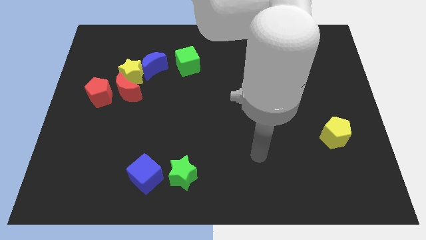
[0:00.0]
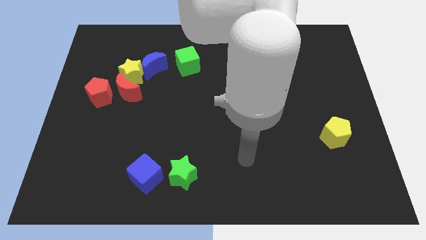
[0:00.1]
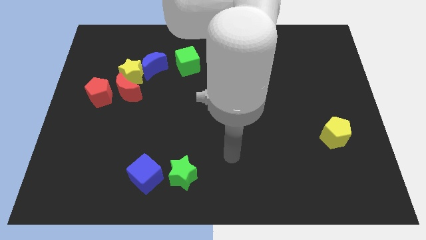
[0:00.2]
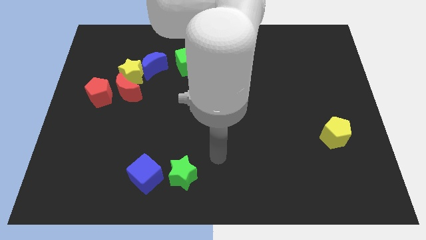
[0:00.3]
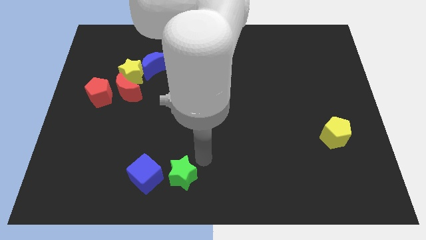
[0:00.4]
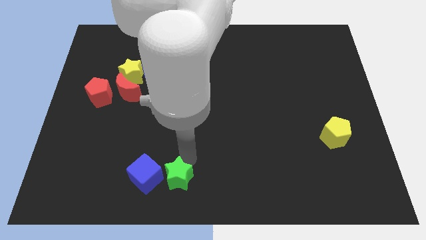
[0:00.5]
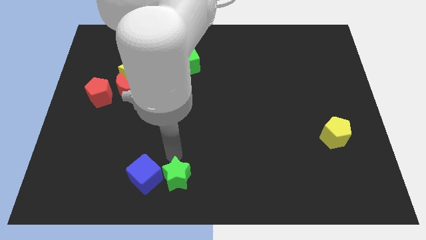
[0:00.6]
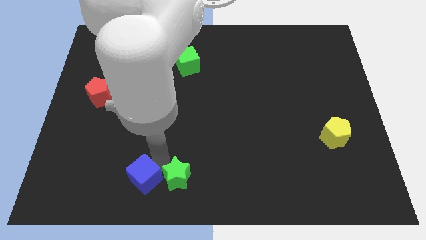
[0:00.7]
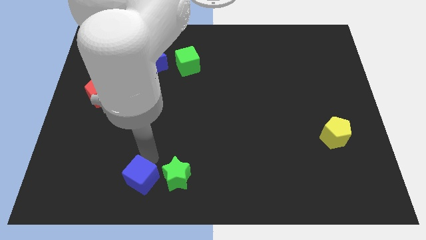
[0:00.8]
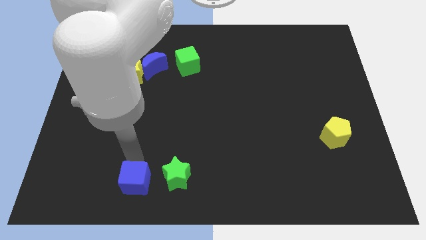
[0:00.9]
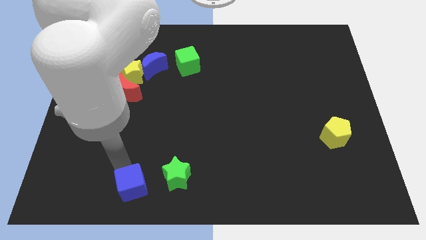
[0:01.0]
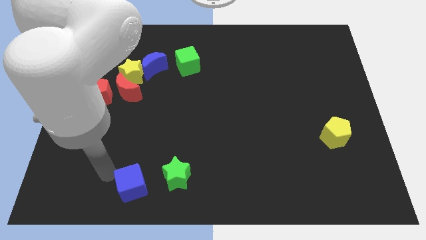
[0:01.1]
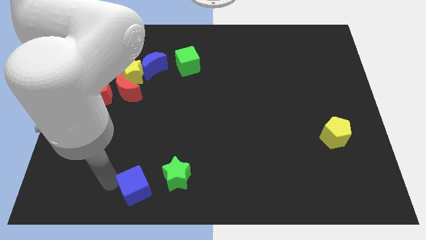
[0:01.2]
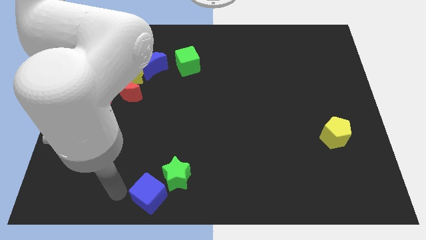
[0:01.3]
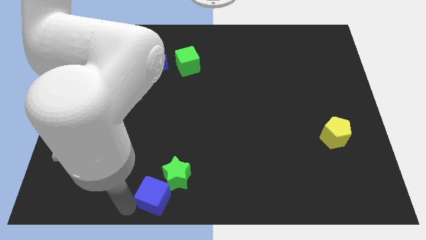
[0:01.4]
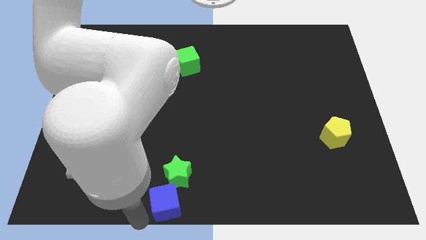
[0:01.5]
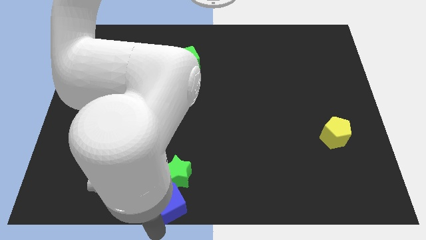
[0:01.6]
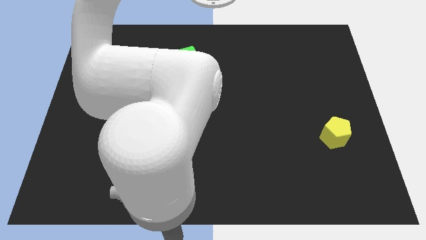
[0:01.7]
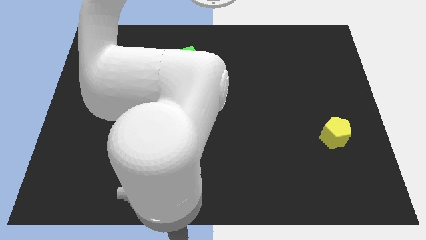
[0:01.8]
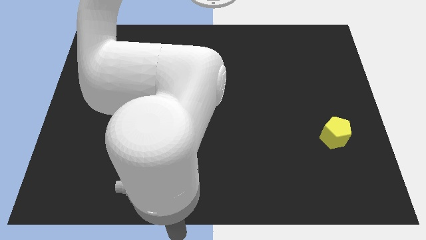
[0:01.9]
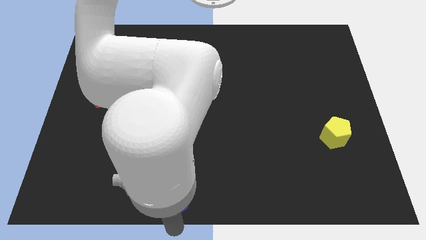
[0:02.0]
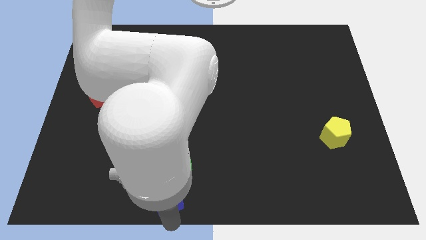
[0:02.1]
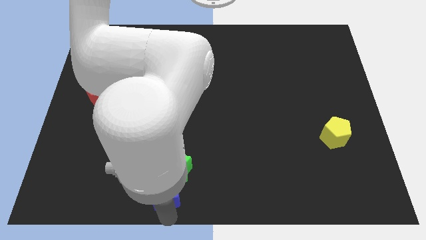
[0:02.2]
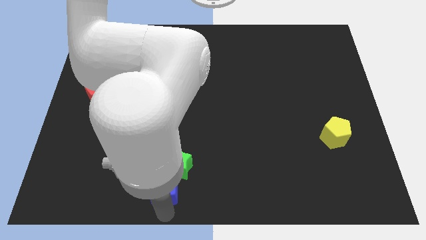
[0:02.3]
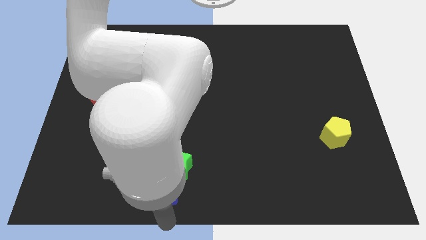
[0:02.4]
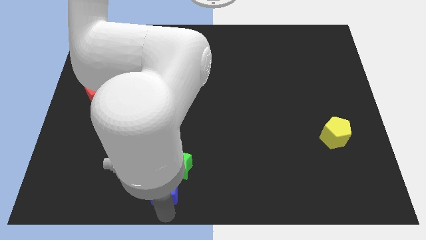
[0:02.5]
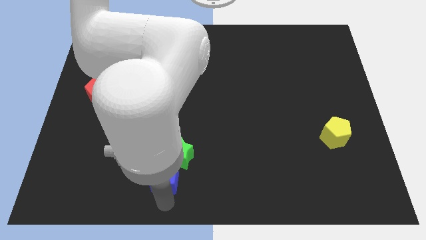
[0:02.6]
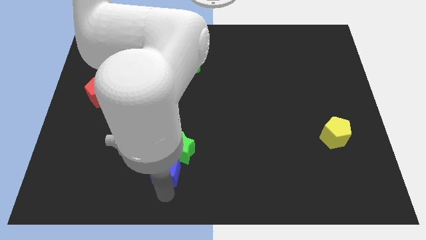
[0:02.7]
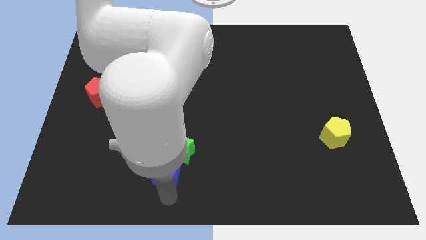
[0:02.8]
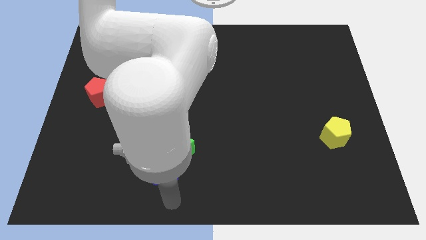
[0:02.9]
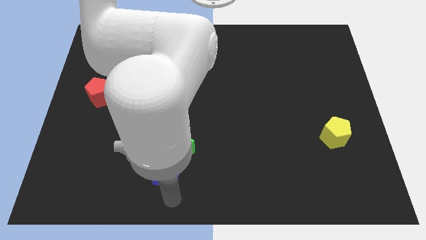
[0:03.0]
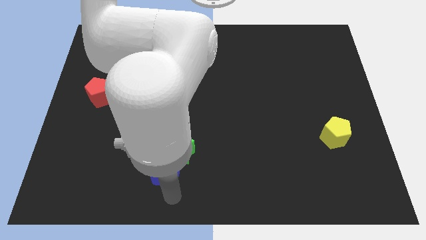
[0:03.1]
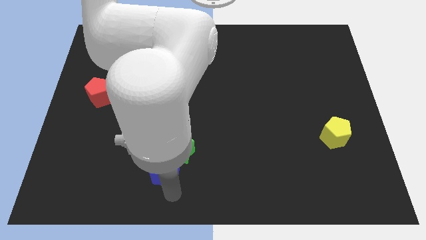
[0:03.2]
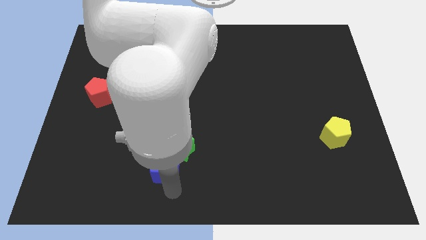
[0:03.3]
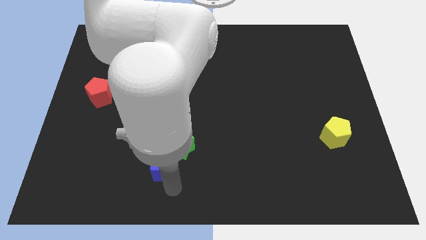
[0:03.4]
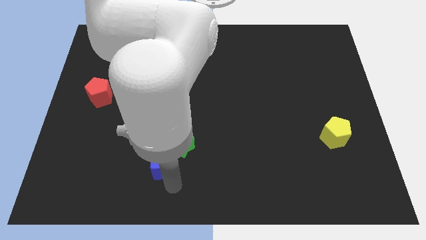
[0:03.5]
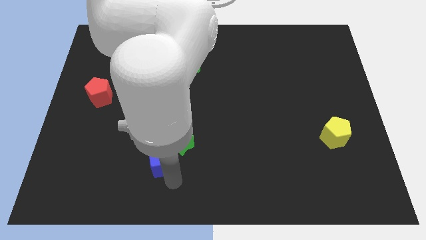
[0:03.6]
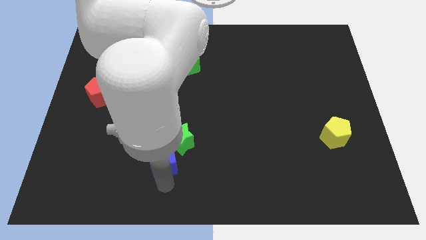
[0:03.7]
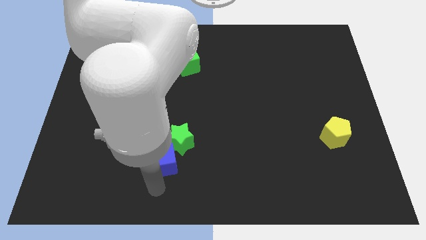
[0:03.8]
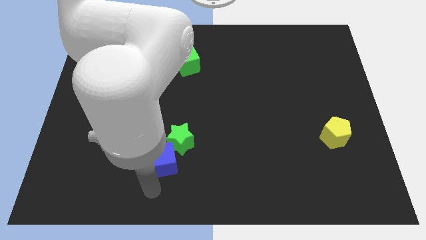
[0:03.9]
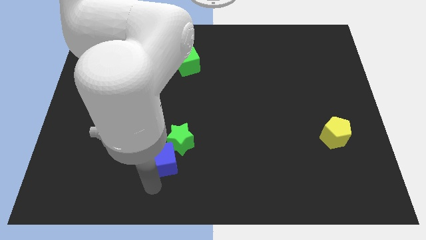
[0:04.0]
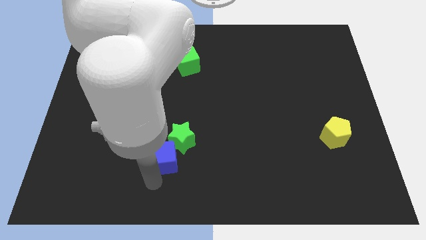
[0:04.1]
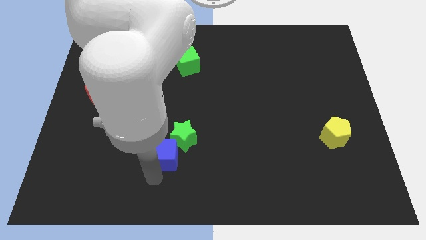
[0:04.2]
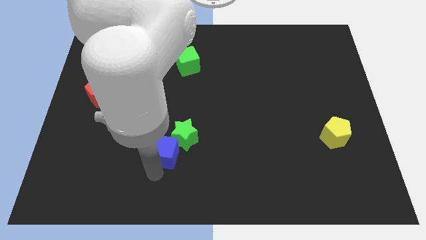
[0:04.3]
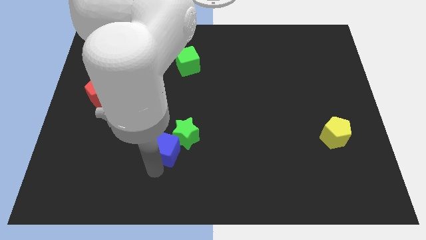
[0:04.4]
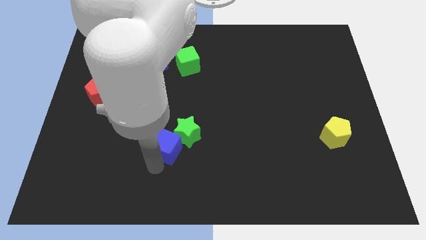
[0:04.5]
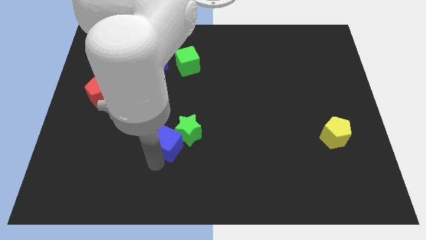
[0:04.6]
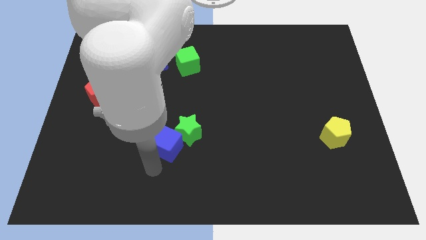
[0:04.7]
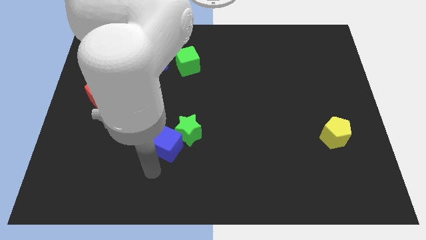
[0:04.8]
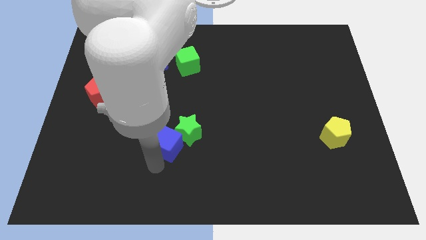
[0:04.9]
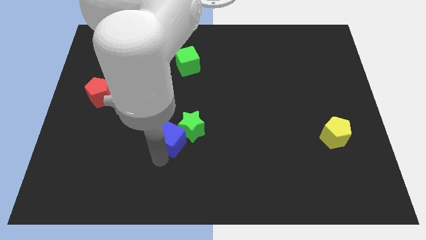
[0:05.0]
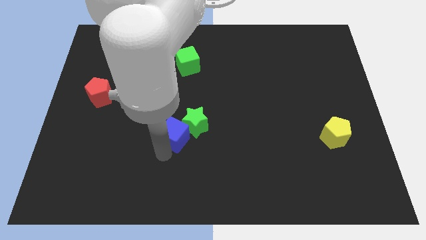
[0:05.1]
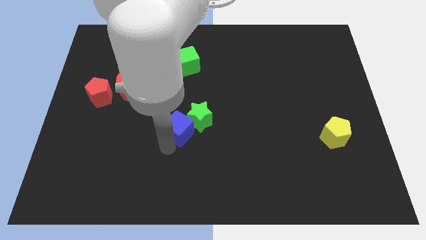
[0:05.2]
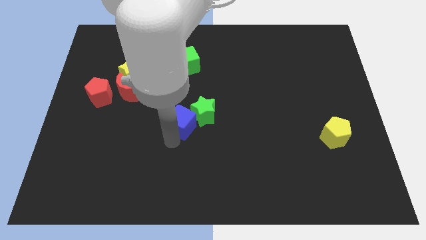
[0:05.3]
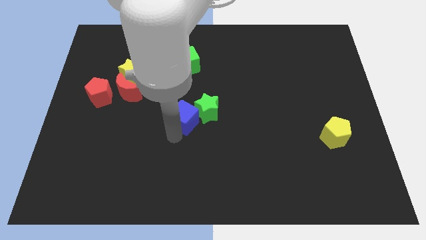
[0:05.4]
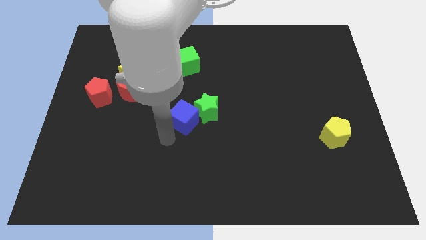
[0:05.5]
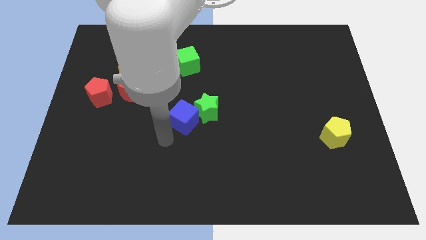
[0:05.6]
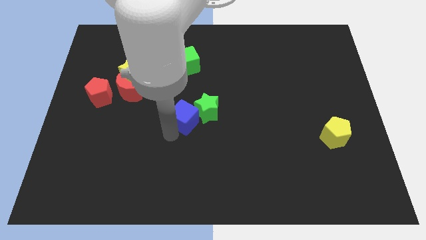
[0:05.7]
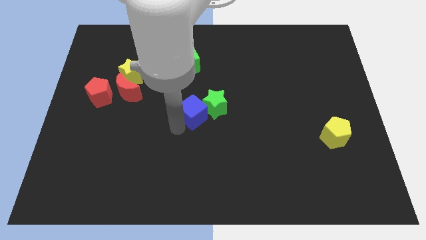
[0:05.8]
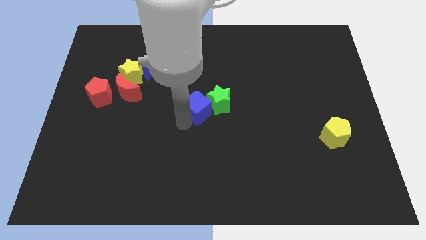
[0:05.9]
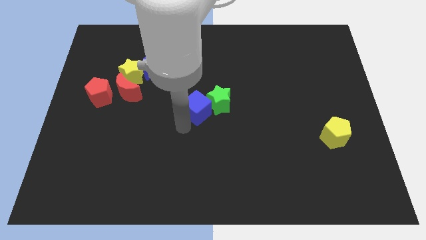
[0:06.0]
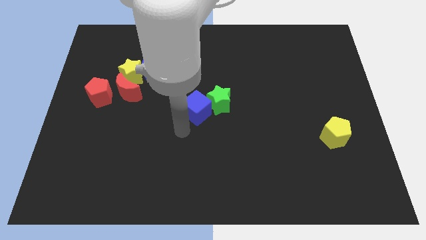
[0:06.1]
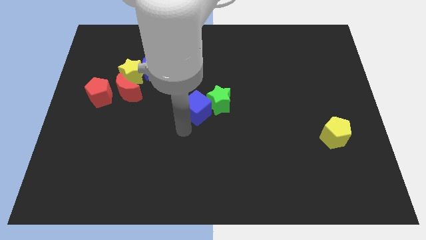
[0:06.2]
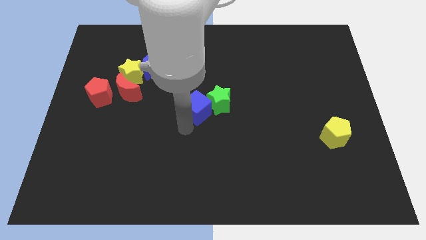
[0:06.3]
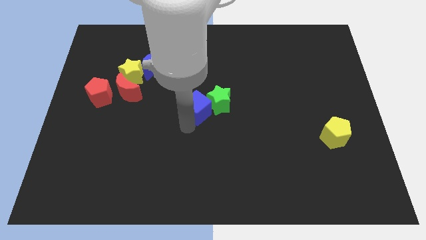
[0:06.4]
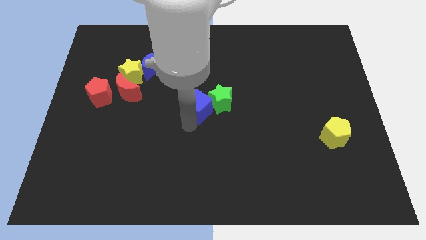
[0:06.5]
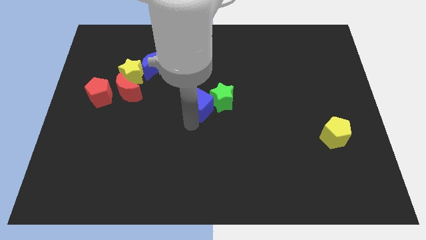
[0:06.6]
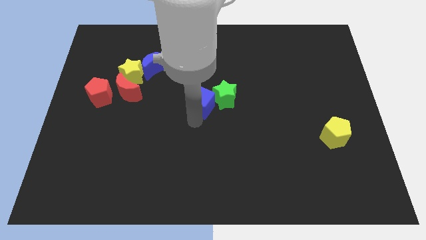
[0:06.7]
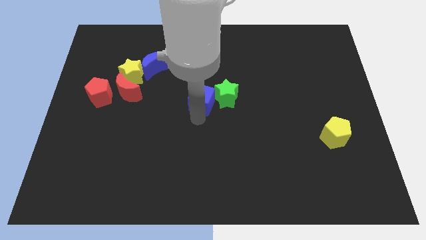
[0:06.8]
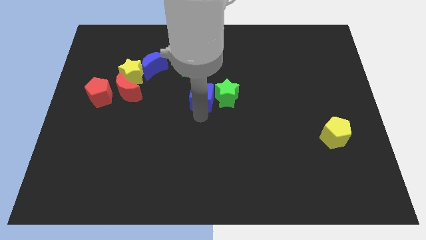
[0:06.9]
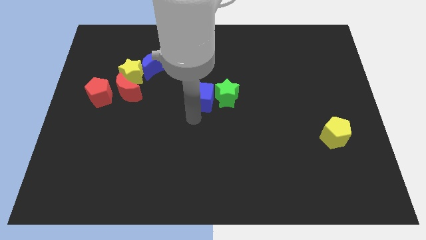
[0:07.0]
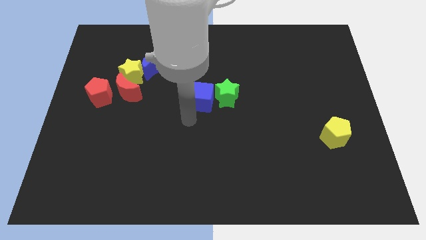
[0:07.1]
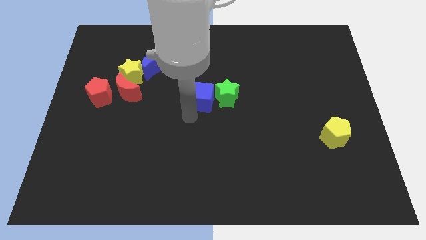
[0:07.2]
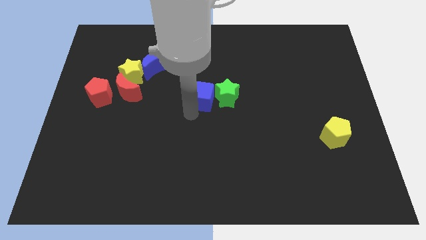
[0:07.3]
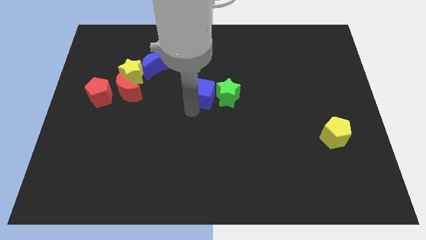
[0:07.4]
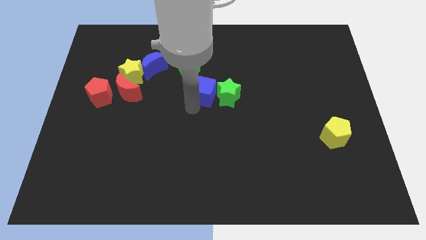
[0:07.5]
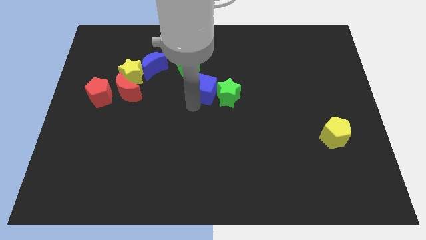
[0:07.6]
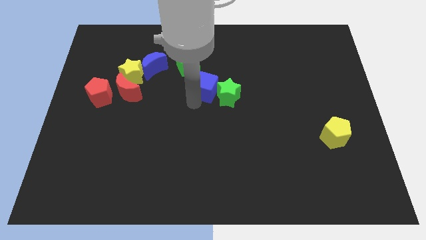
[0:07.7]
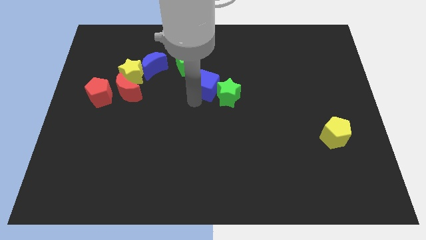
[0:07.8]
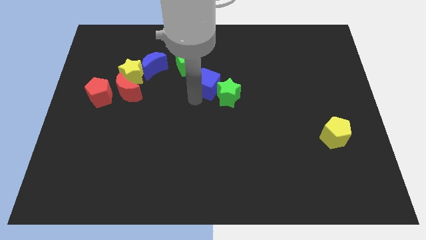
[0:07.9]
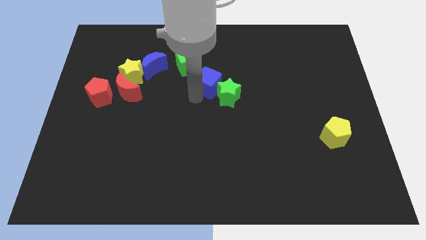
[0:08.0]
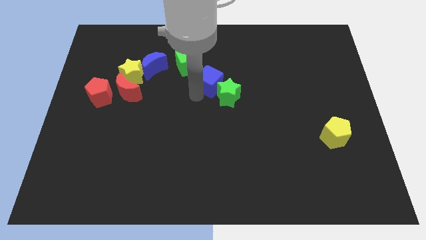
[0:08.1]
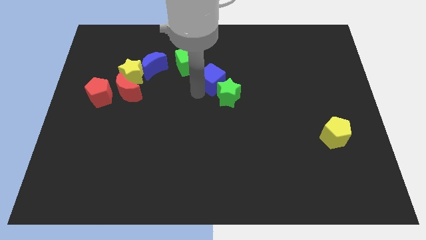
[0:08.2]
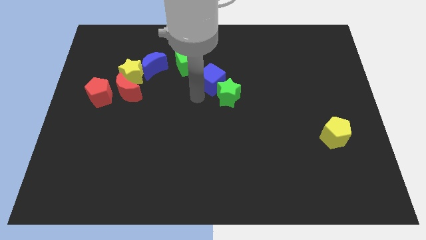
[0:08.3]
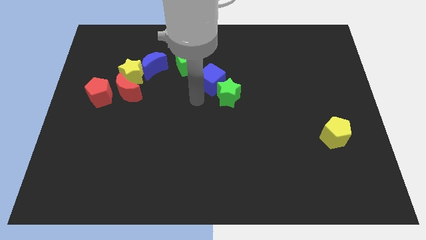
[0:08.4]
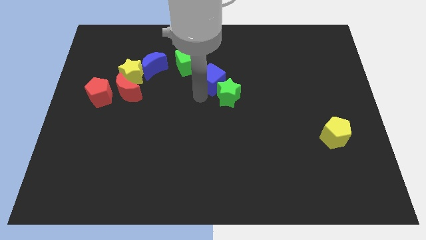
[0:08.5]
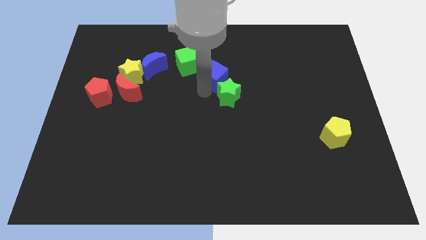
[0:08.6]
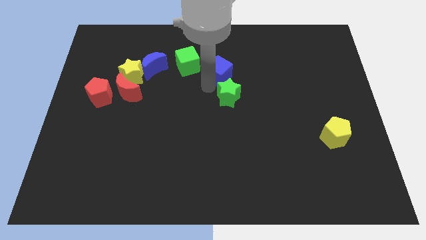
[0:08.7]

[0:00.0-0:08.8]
put the blue cube just right of the green cube
